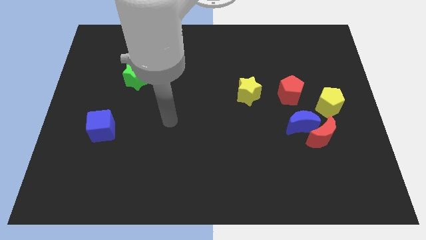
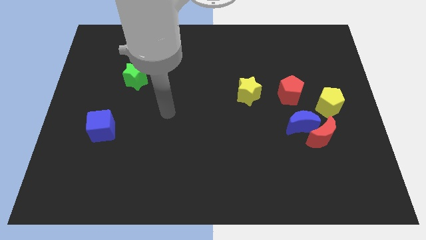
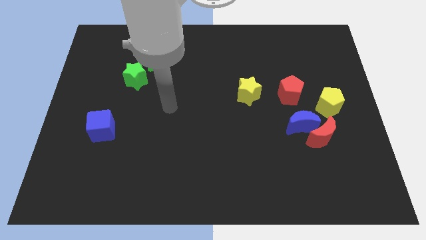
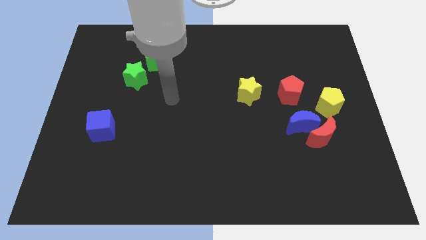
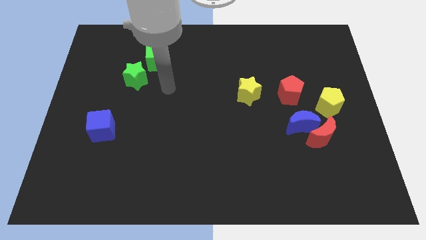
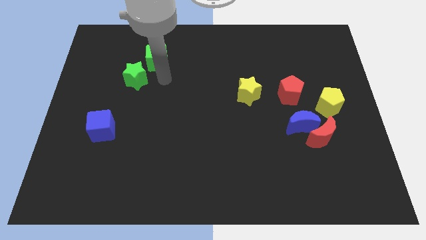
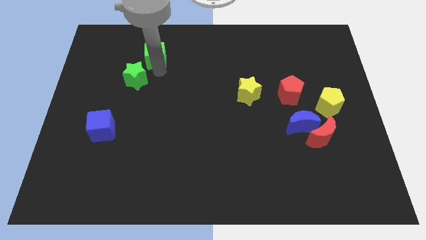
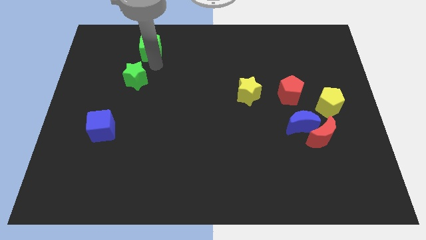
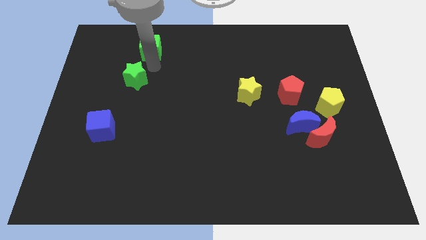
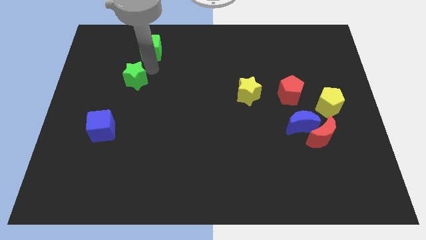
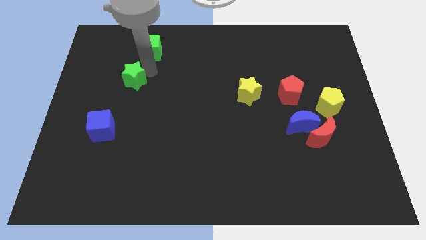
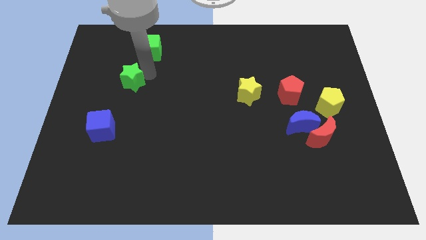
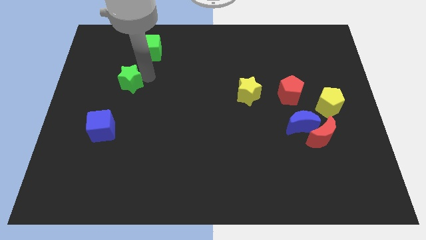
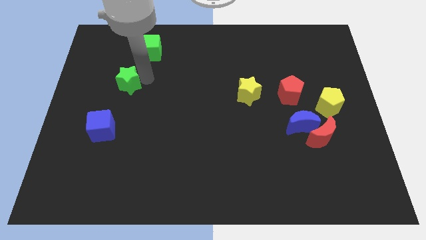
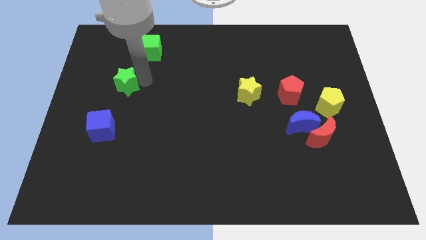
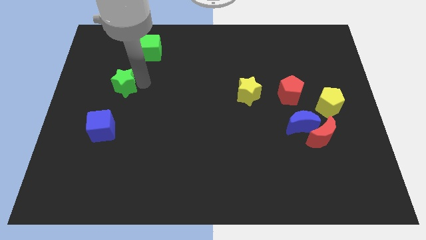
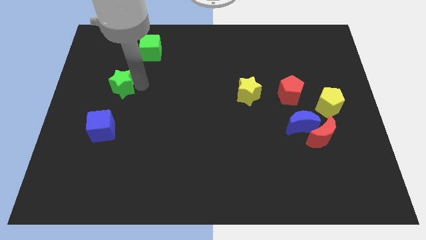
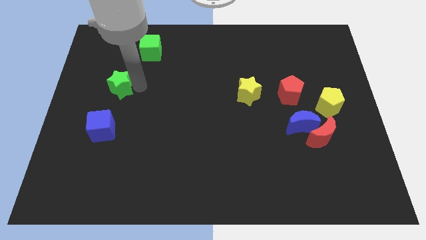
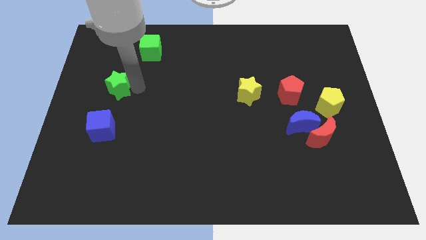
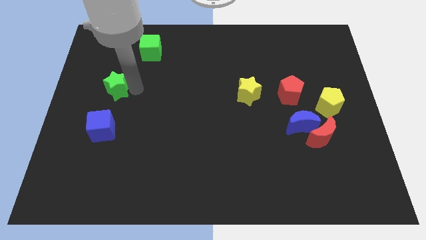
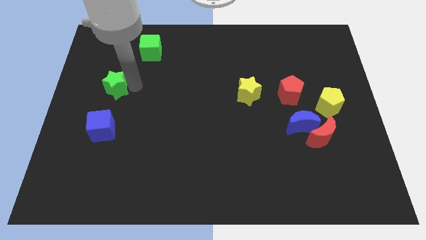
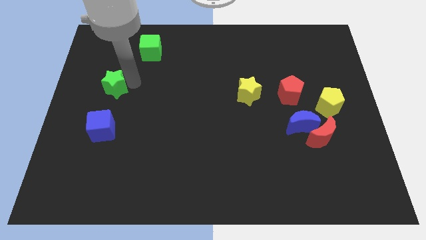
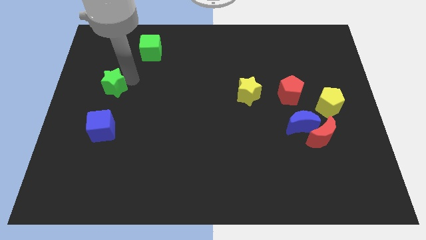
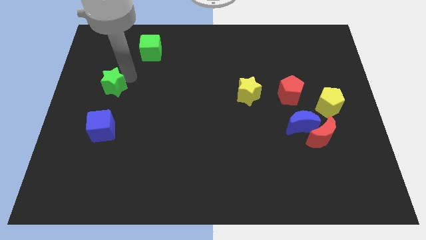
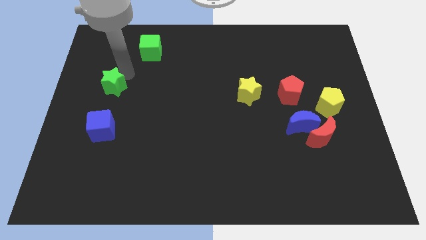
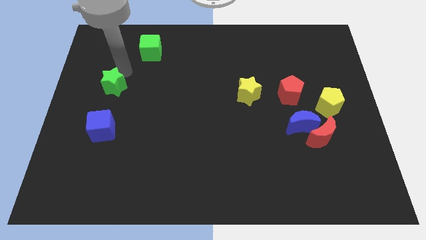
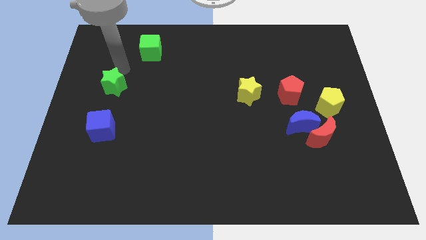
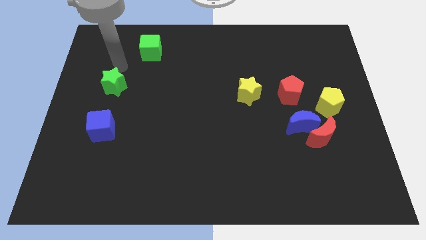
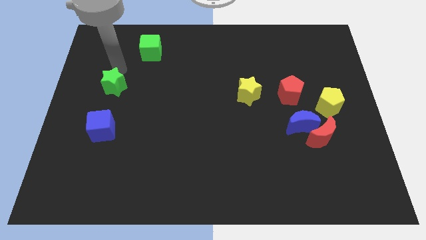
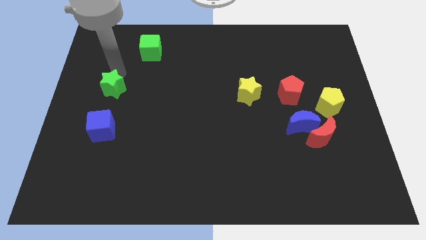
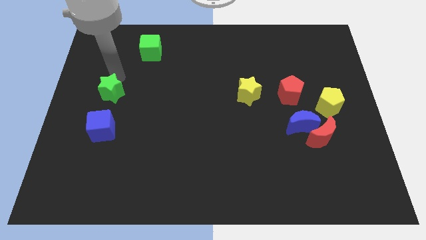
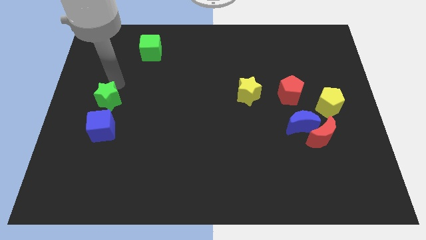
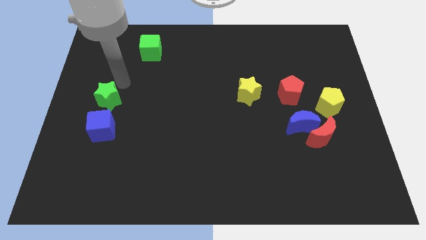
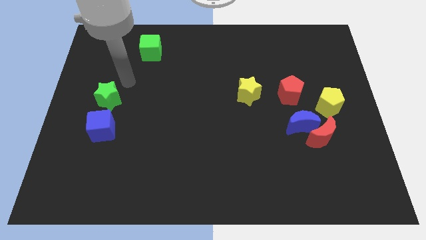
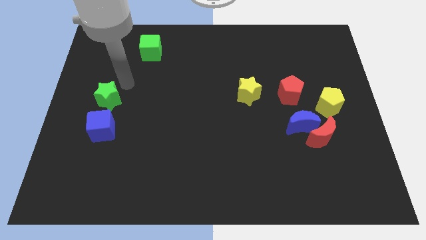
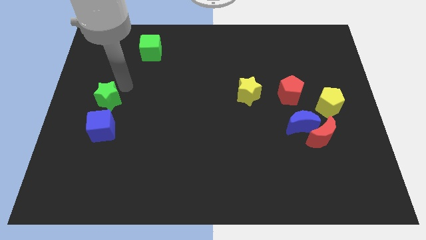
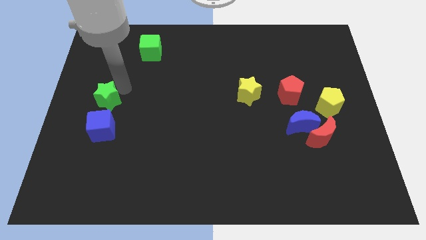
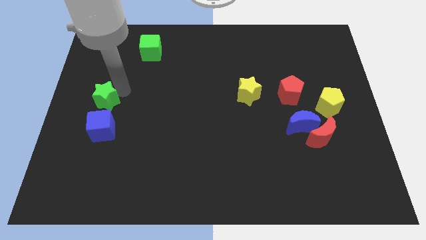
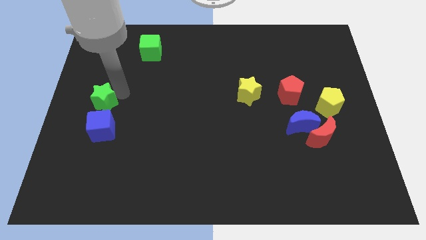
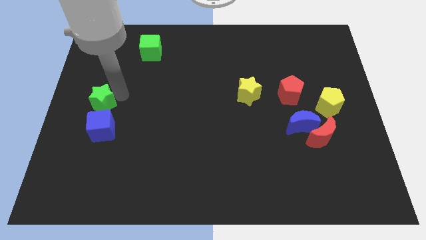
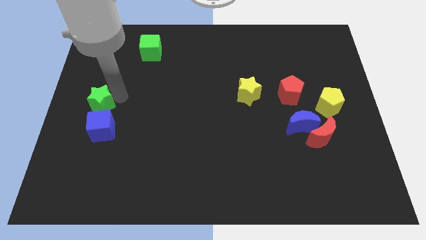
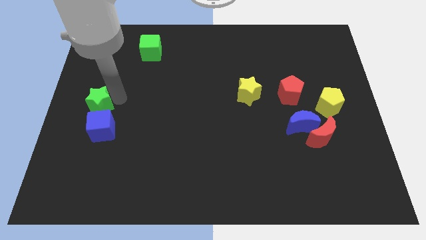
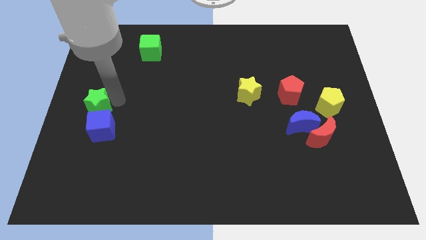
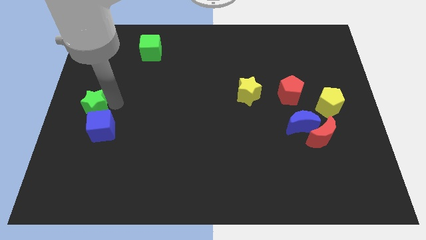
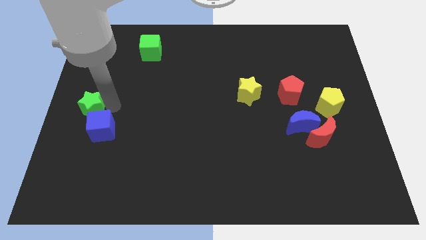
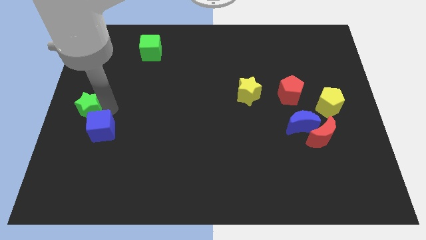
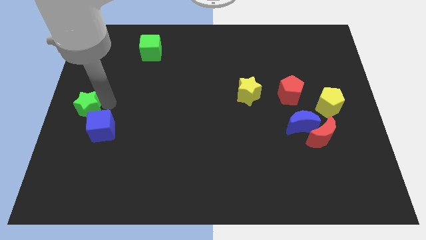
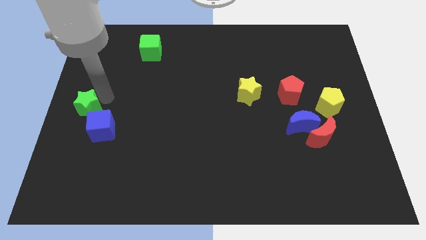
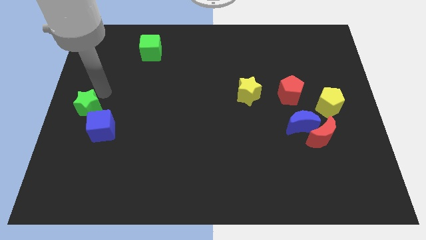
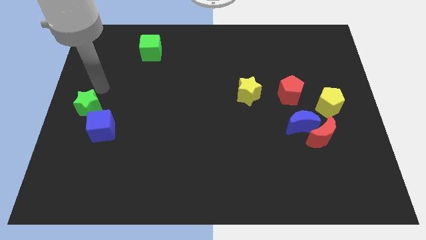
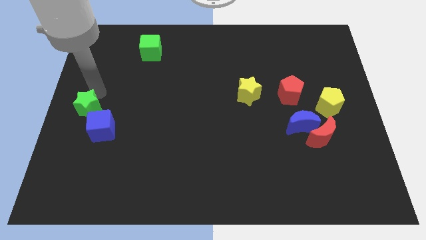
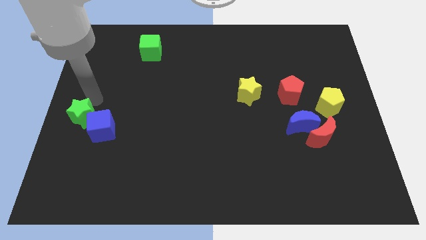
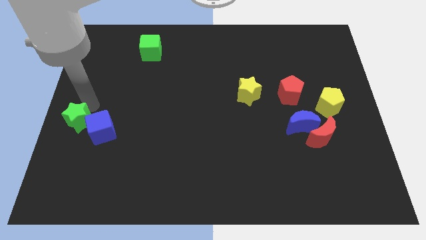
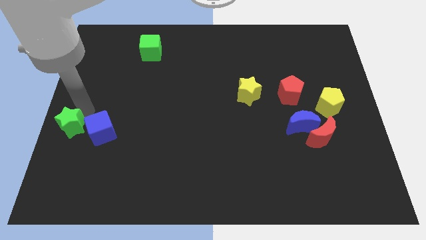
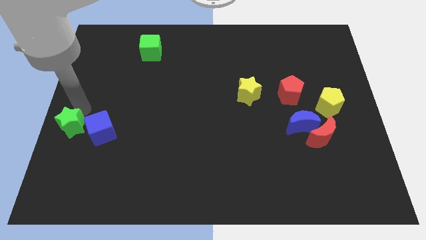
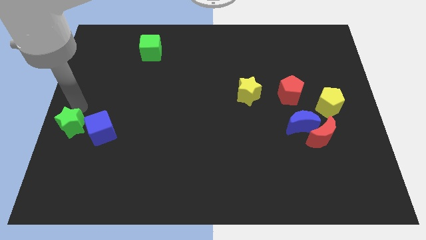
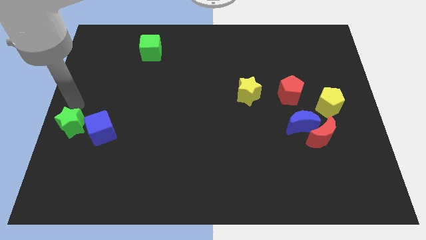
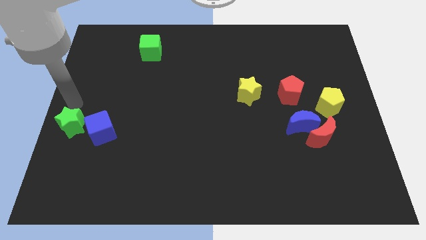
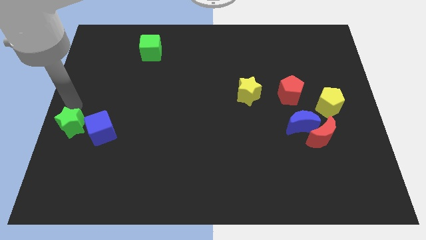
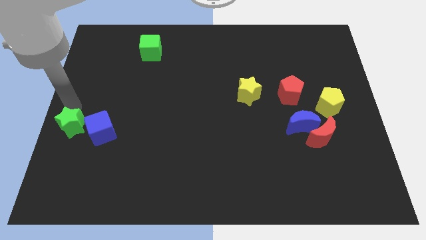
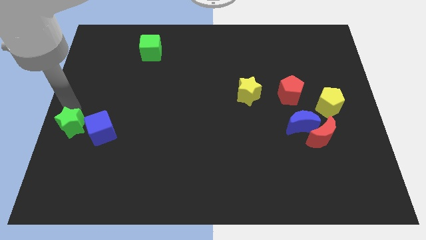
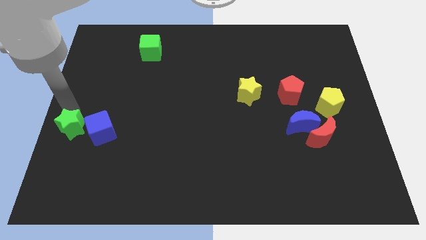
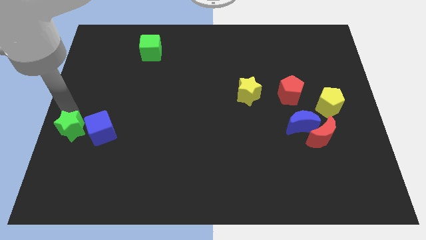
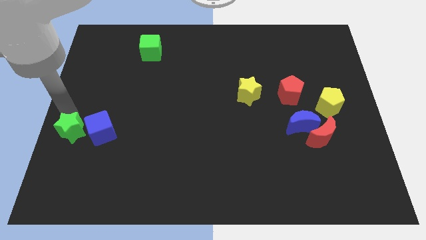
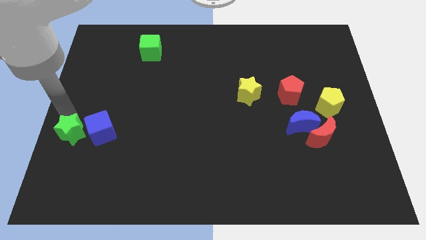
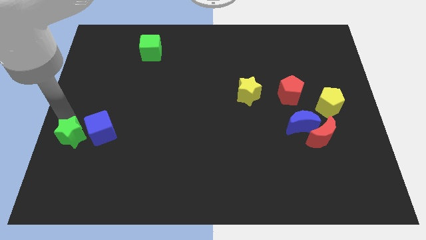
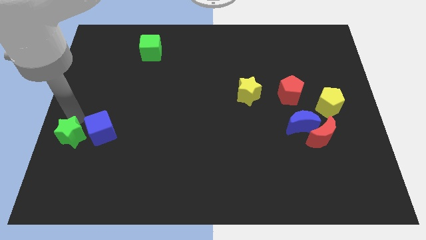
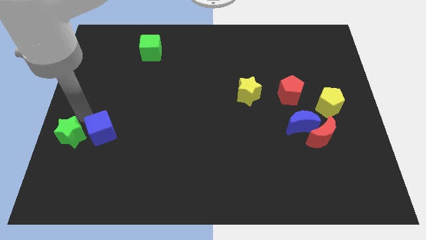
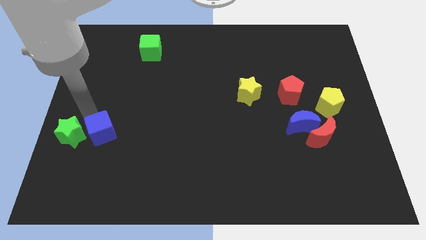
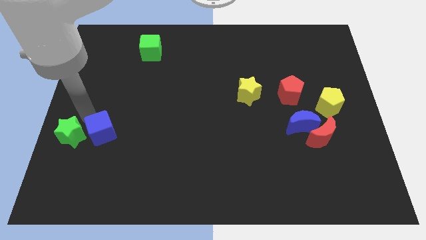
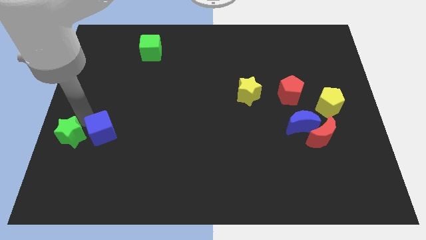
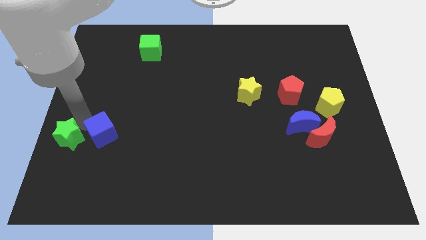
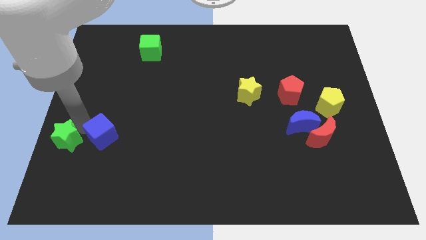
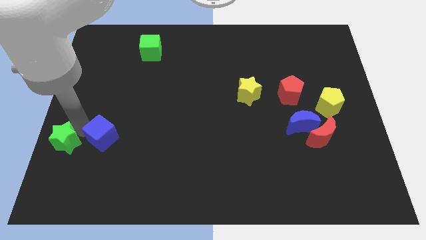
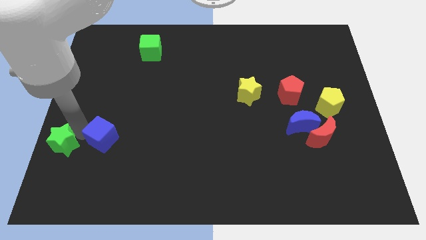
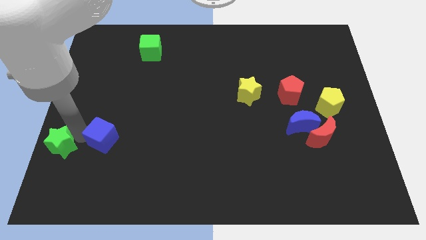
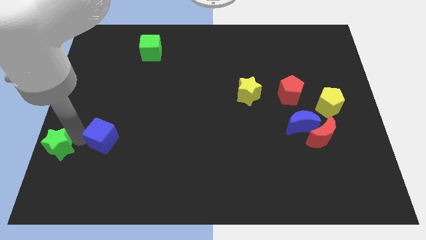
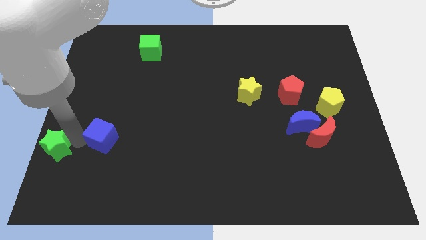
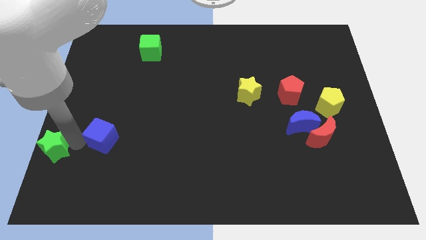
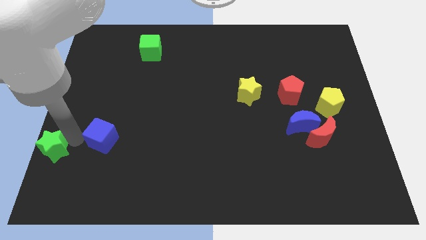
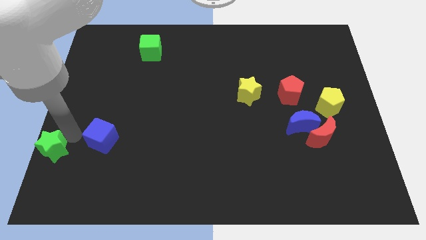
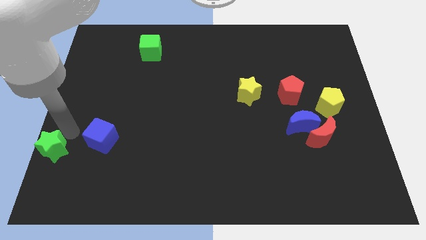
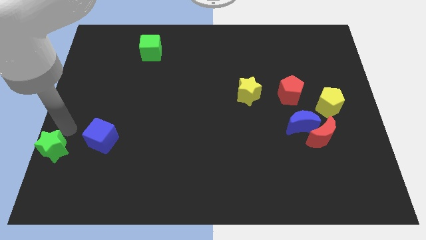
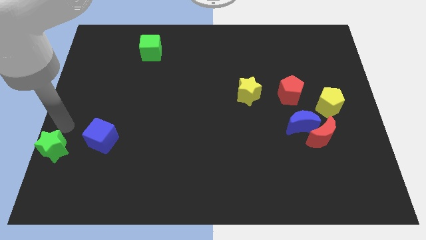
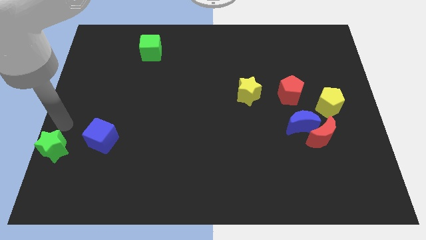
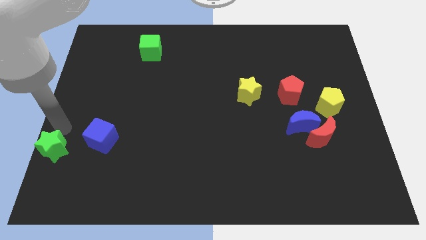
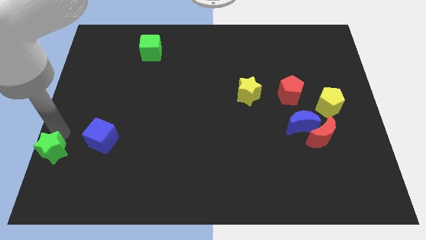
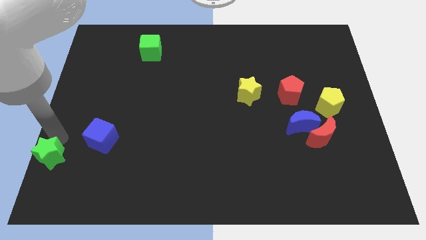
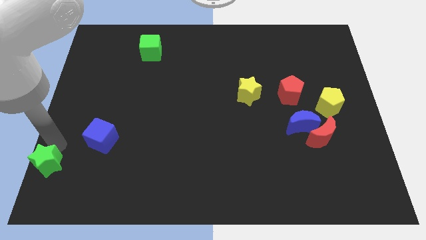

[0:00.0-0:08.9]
slide the green star to the bottom left corner
